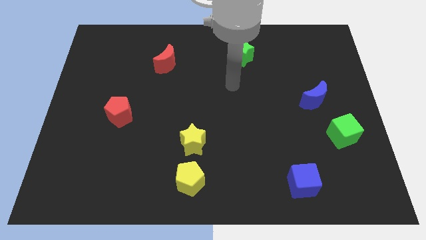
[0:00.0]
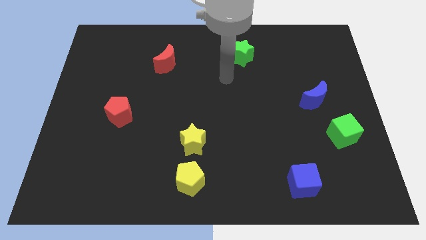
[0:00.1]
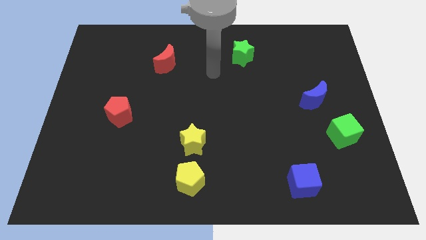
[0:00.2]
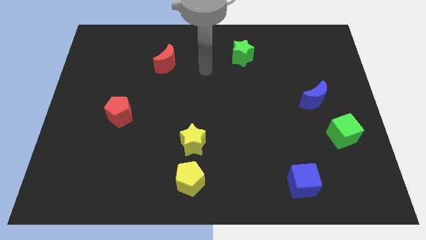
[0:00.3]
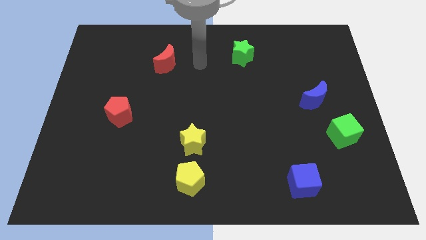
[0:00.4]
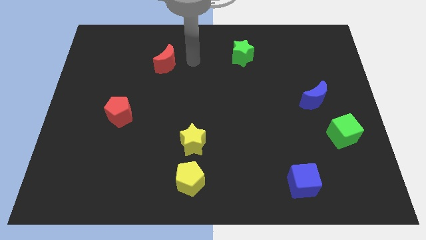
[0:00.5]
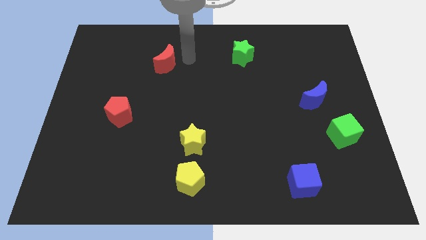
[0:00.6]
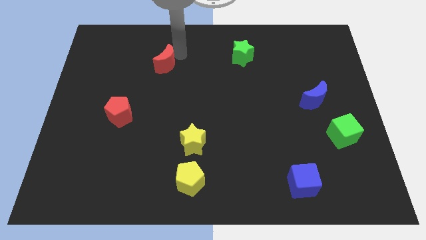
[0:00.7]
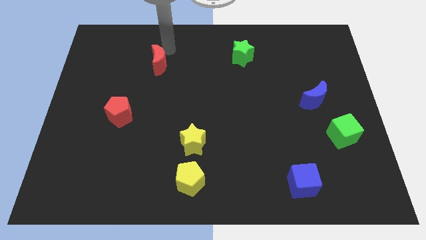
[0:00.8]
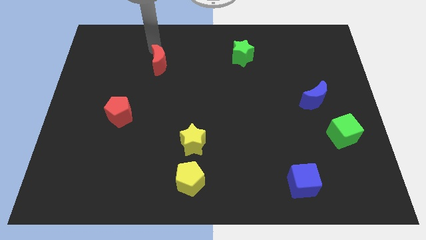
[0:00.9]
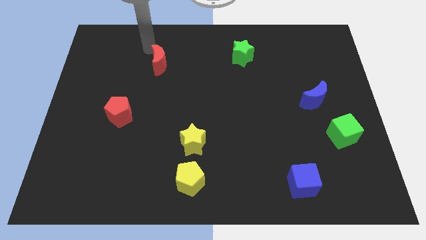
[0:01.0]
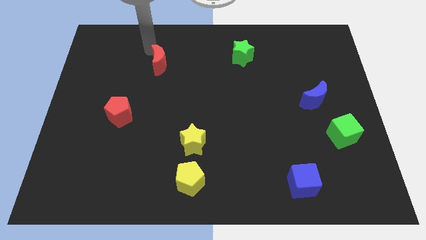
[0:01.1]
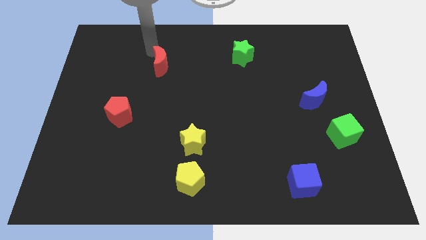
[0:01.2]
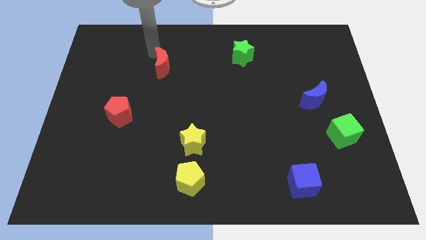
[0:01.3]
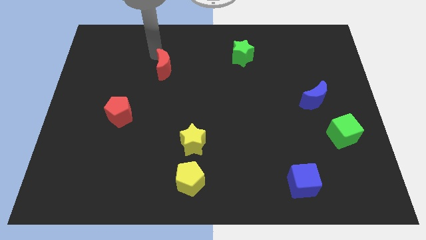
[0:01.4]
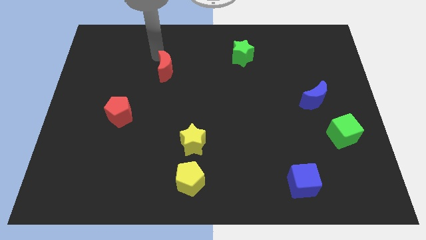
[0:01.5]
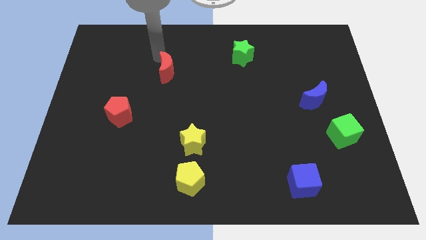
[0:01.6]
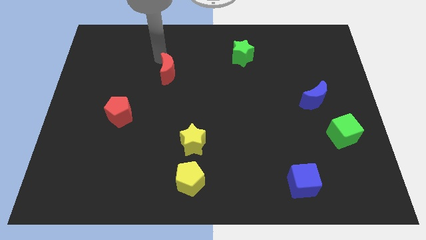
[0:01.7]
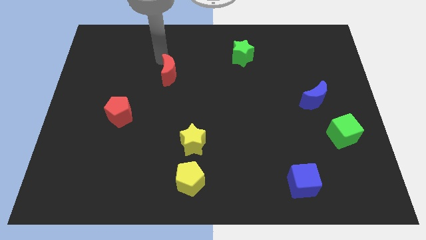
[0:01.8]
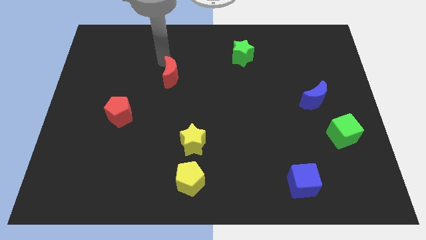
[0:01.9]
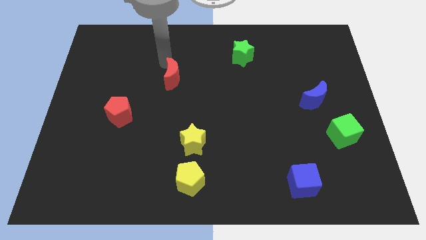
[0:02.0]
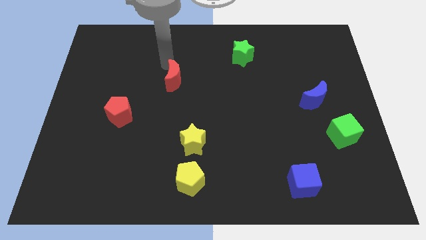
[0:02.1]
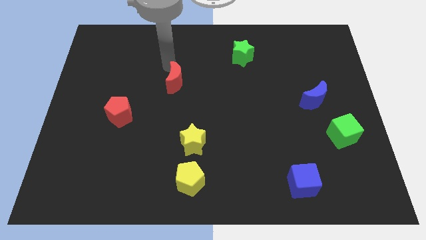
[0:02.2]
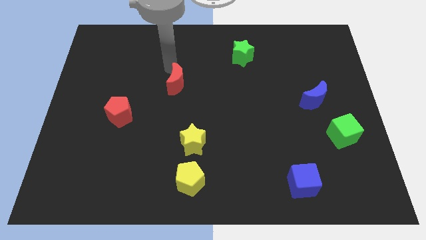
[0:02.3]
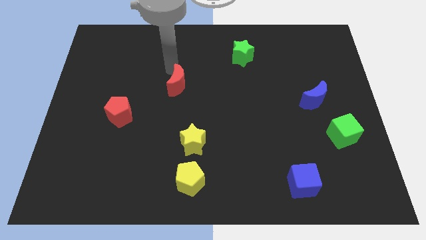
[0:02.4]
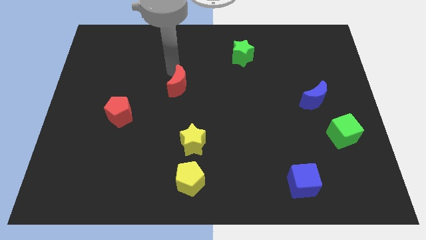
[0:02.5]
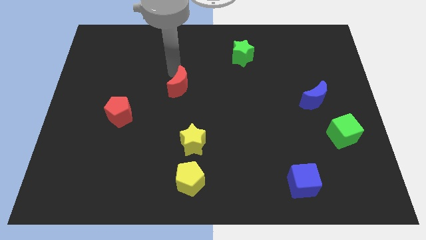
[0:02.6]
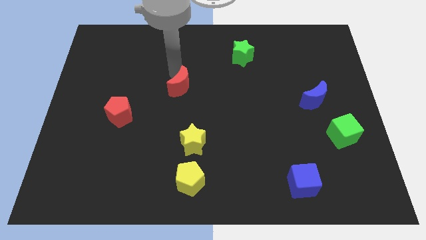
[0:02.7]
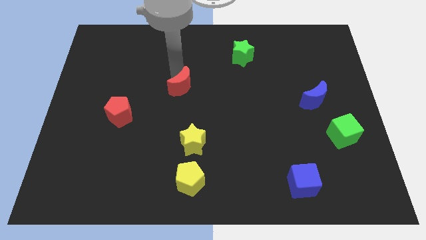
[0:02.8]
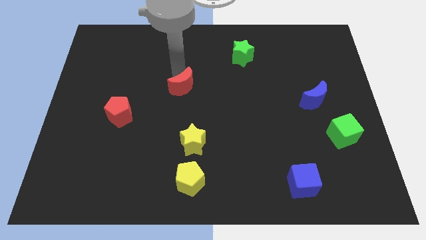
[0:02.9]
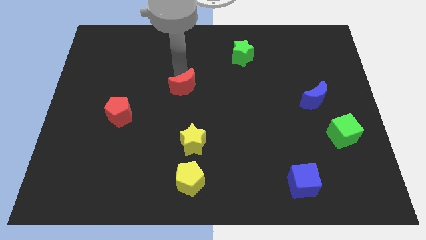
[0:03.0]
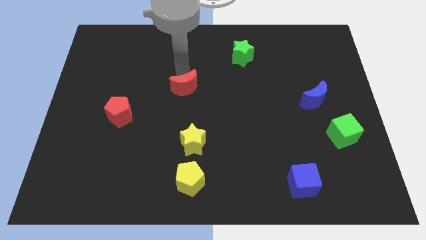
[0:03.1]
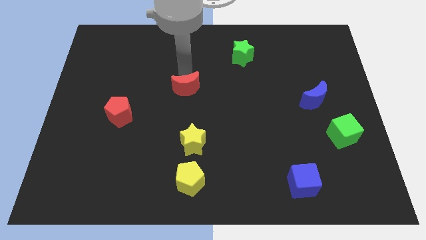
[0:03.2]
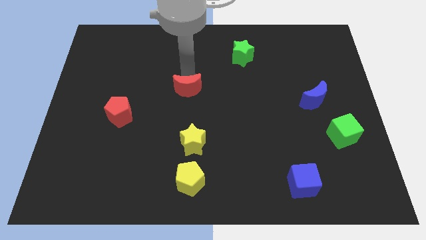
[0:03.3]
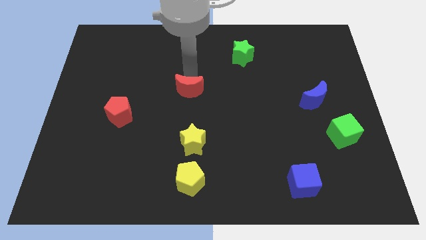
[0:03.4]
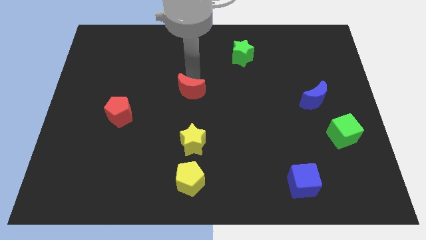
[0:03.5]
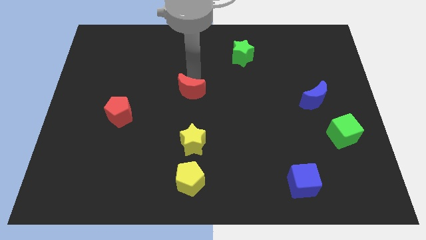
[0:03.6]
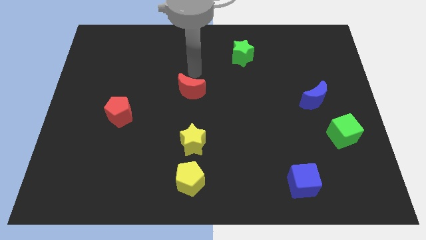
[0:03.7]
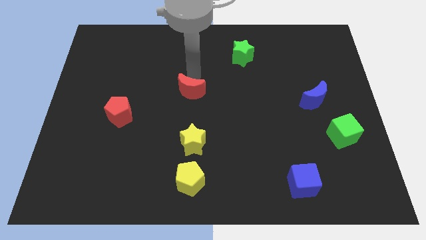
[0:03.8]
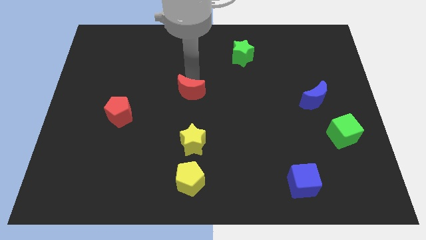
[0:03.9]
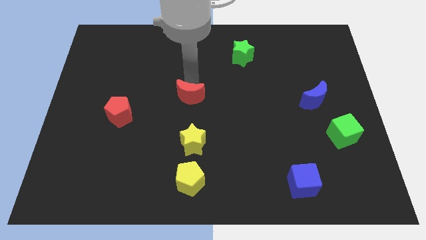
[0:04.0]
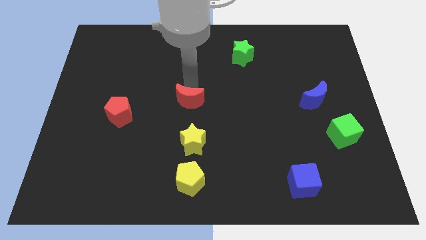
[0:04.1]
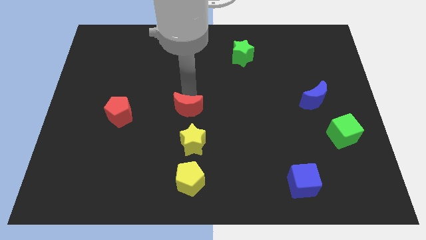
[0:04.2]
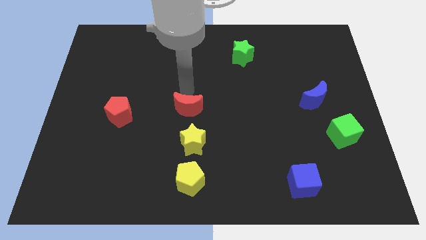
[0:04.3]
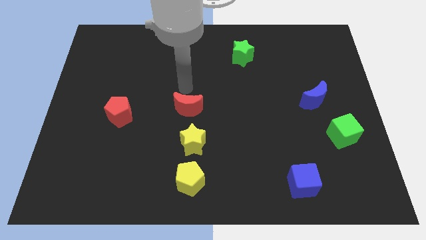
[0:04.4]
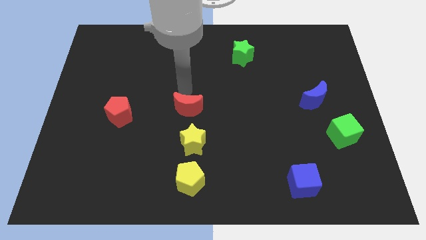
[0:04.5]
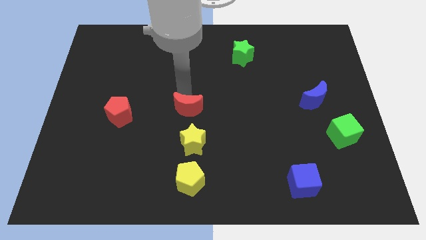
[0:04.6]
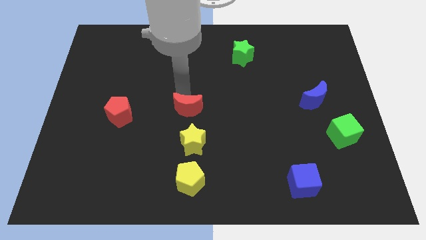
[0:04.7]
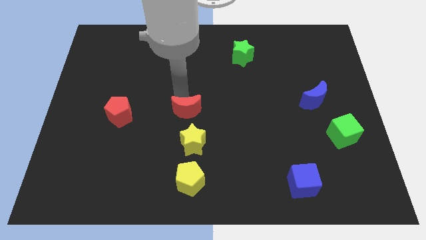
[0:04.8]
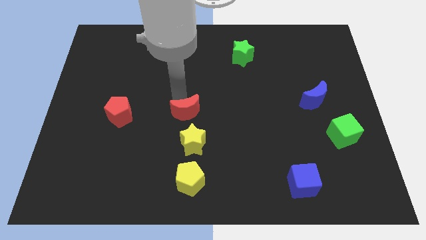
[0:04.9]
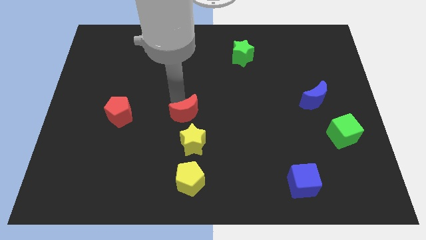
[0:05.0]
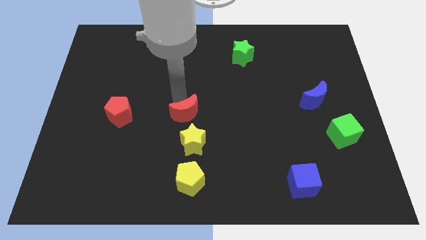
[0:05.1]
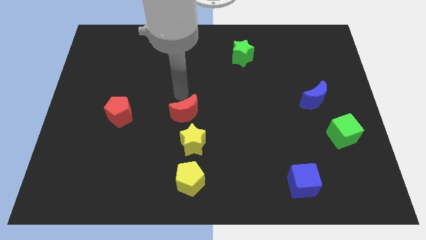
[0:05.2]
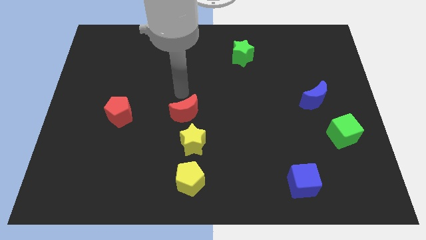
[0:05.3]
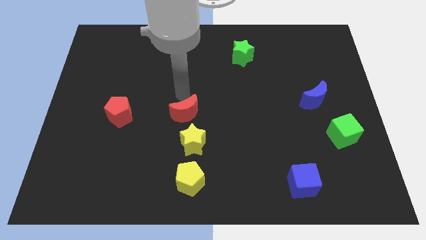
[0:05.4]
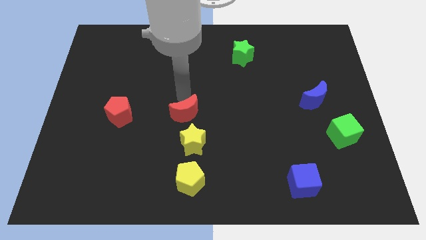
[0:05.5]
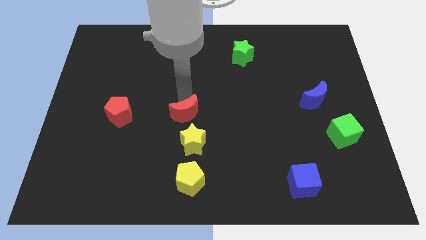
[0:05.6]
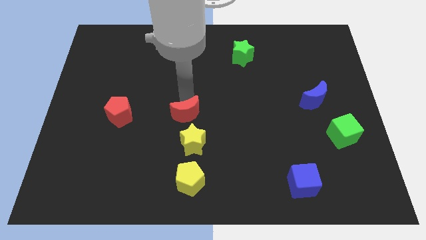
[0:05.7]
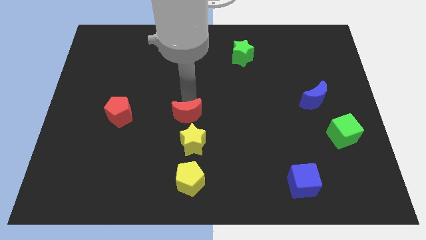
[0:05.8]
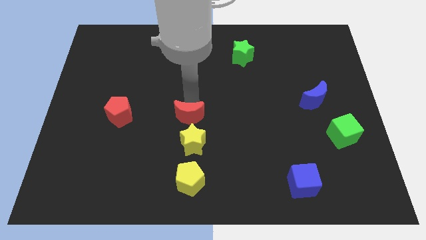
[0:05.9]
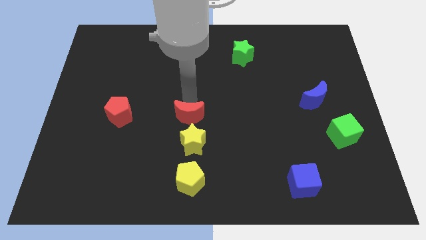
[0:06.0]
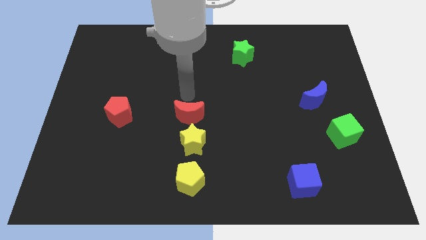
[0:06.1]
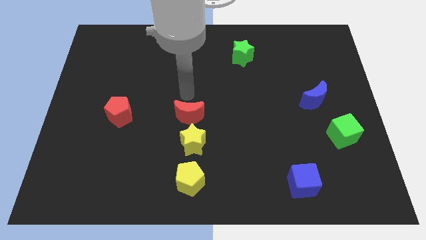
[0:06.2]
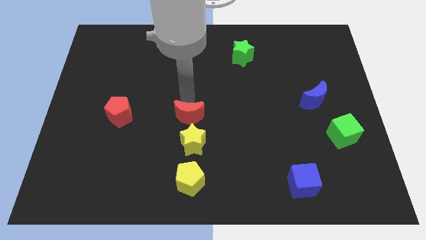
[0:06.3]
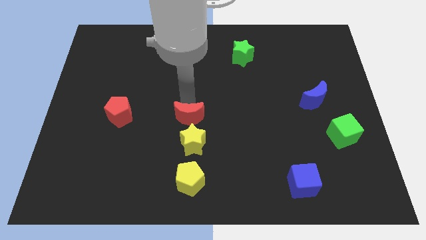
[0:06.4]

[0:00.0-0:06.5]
push the red moon above the yellow pentagon

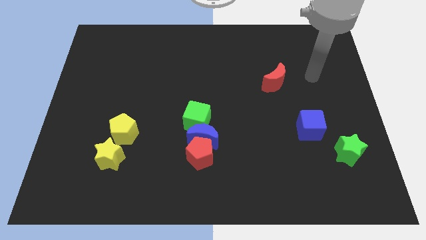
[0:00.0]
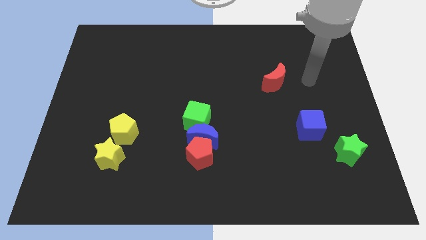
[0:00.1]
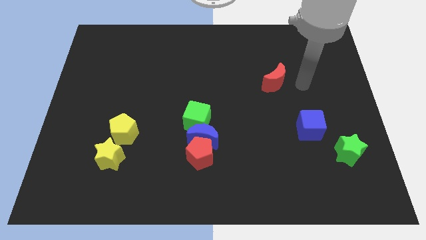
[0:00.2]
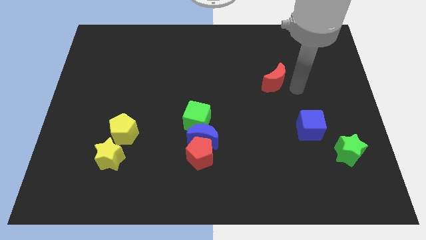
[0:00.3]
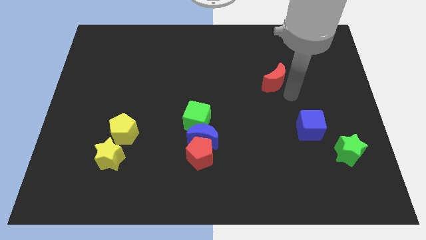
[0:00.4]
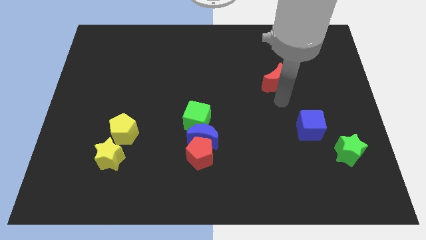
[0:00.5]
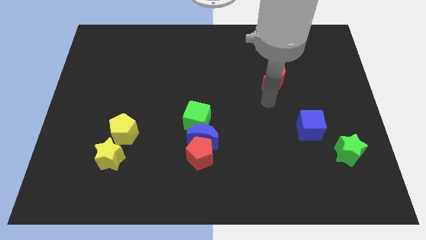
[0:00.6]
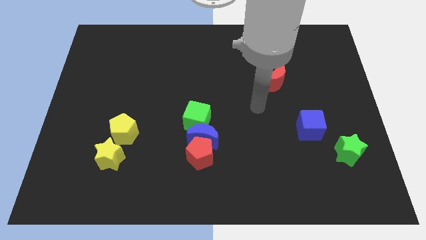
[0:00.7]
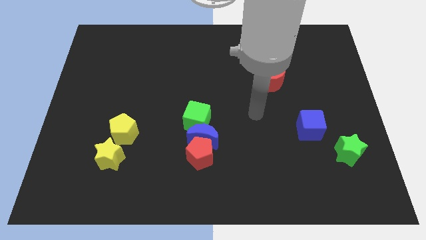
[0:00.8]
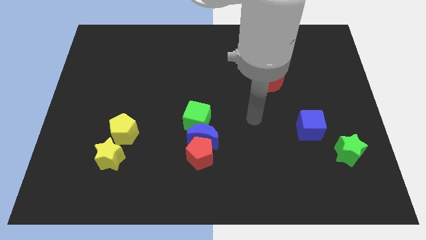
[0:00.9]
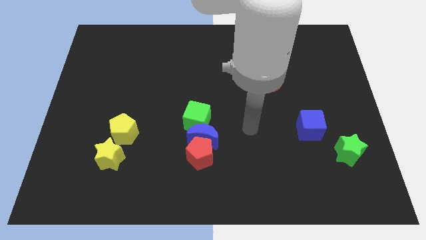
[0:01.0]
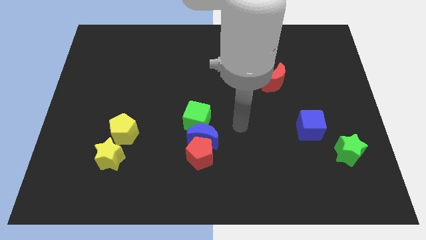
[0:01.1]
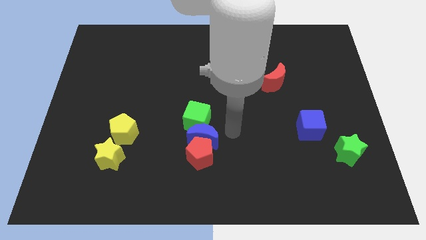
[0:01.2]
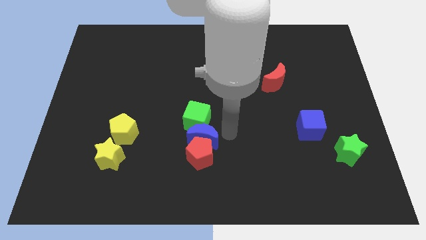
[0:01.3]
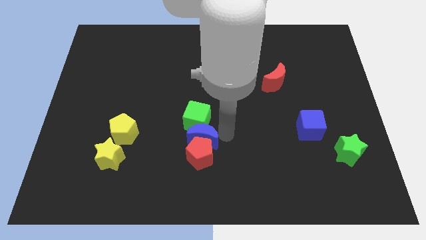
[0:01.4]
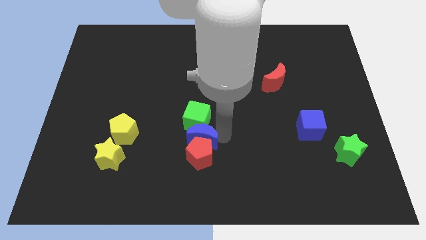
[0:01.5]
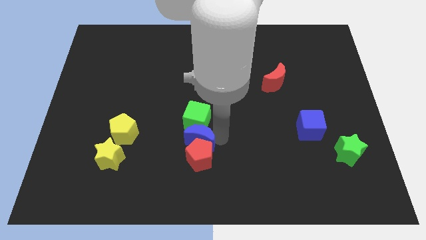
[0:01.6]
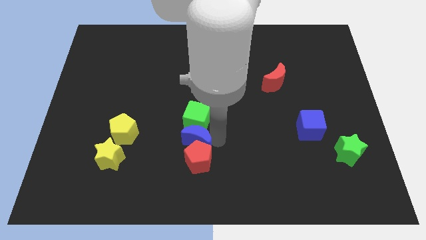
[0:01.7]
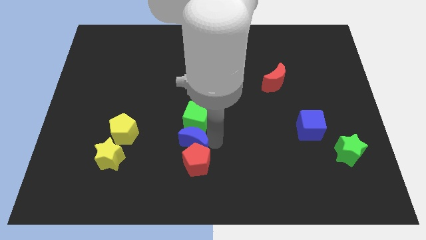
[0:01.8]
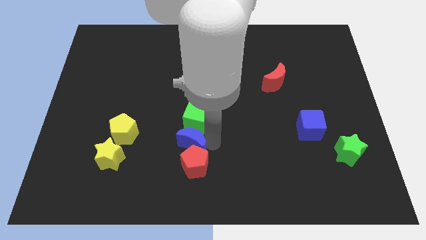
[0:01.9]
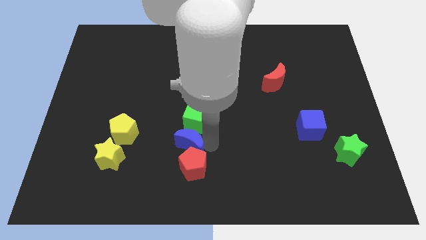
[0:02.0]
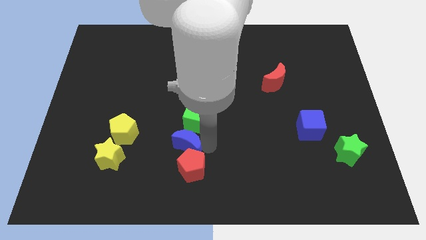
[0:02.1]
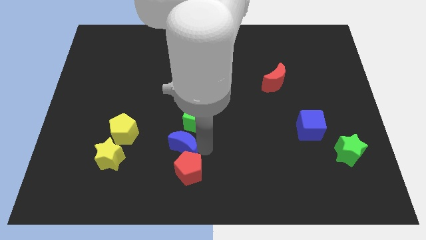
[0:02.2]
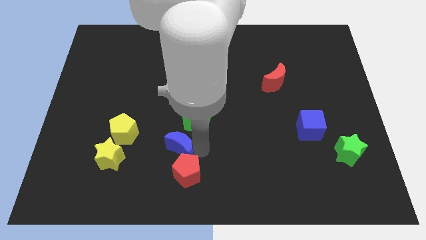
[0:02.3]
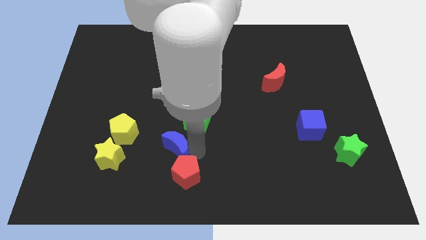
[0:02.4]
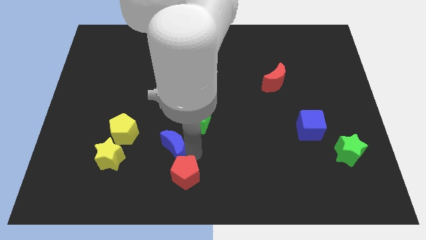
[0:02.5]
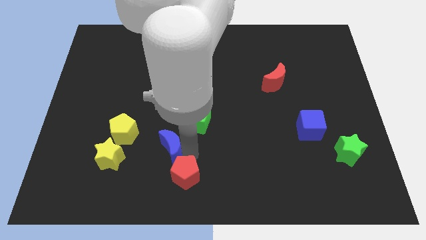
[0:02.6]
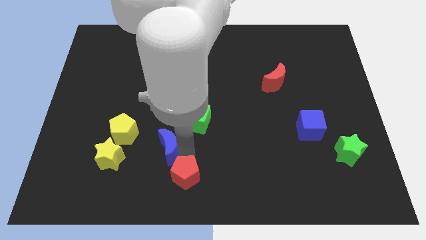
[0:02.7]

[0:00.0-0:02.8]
slide the blue moon diagonally down and to the right of the yellow pentagon
